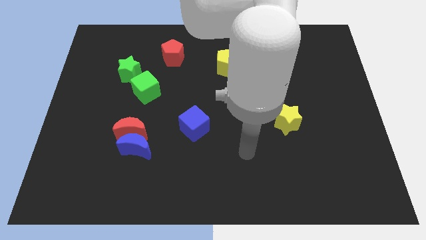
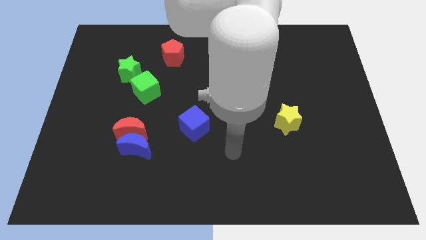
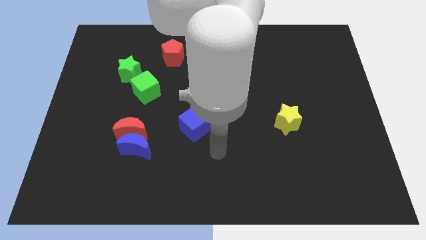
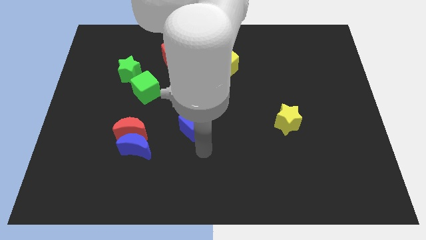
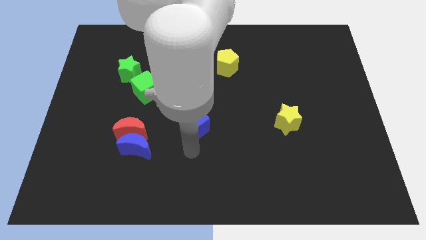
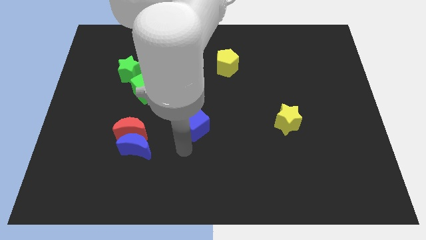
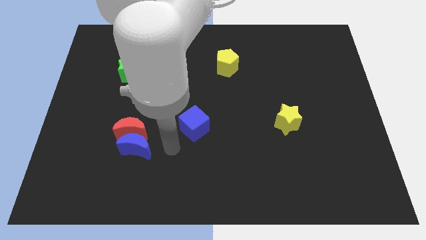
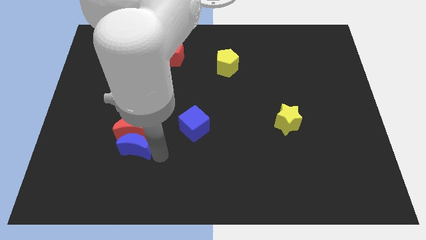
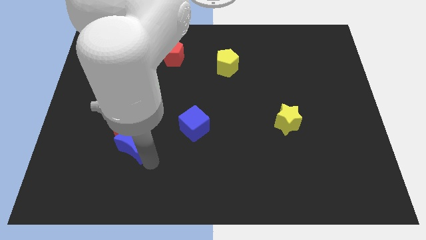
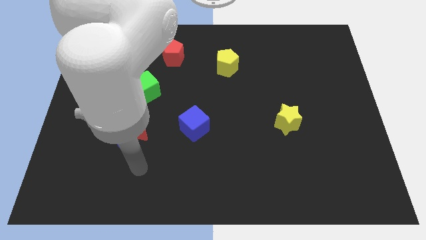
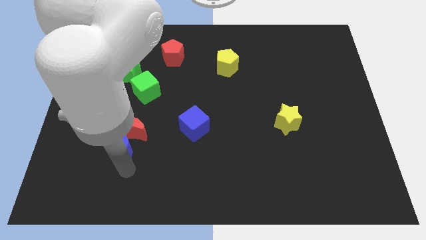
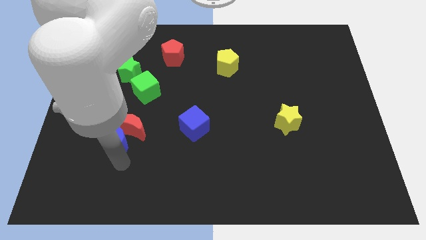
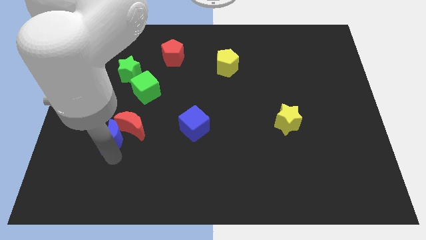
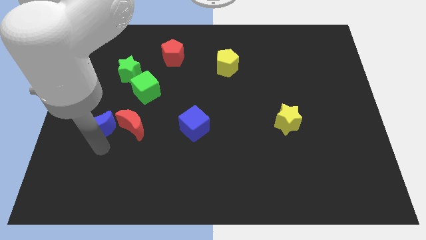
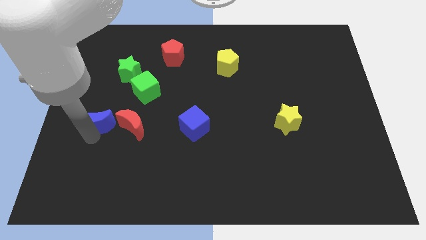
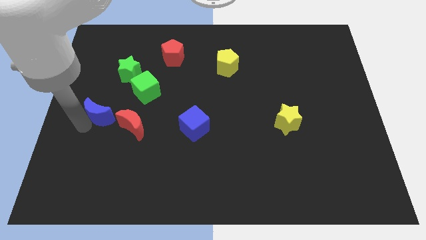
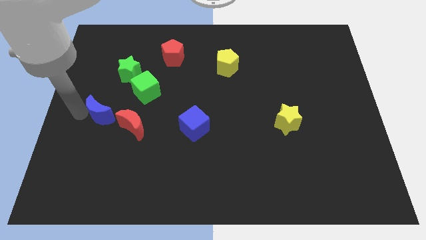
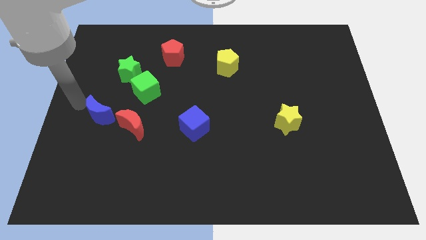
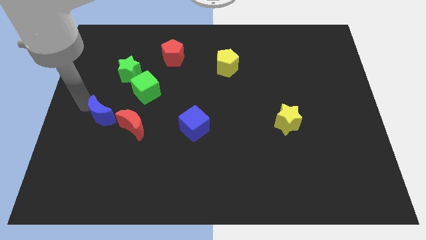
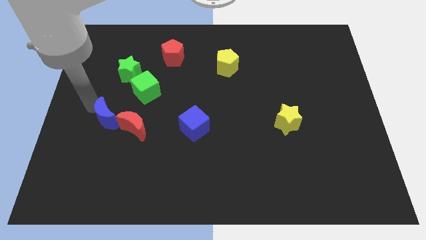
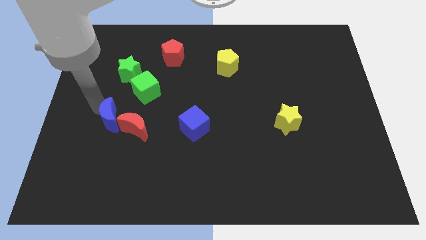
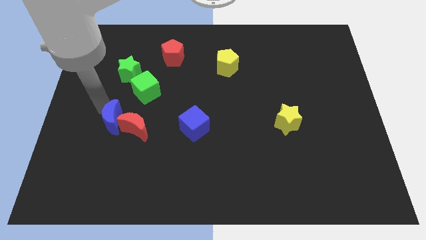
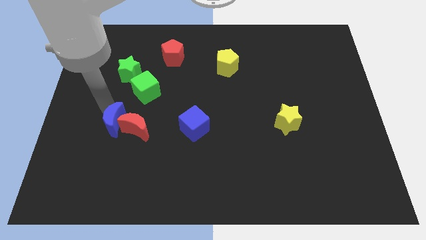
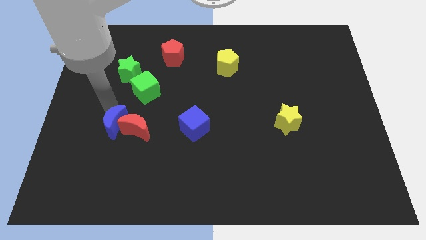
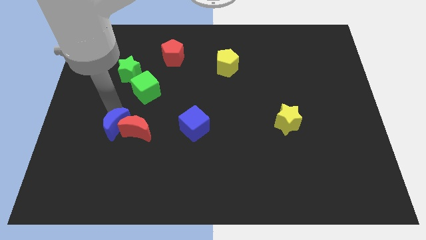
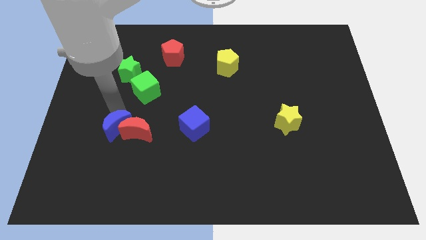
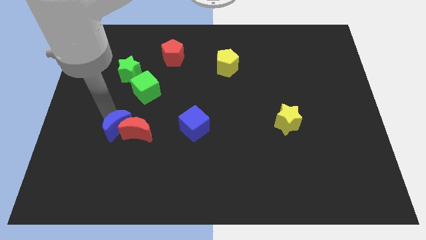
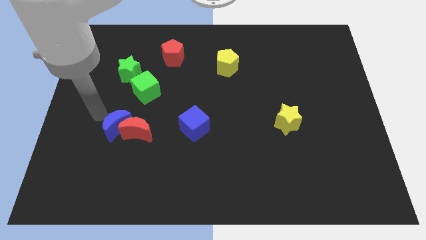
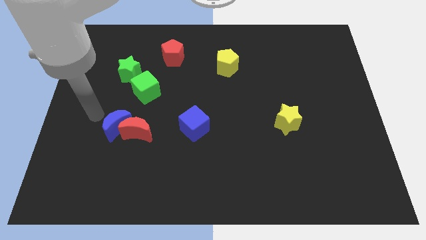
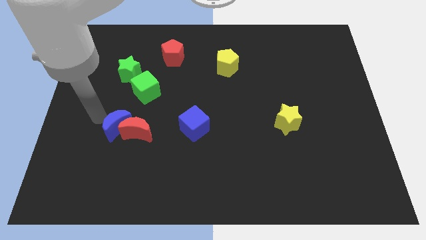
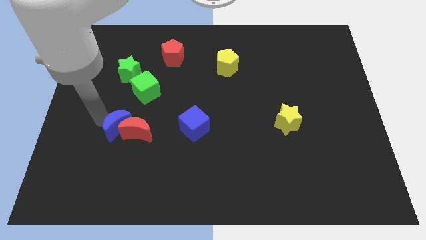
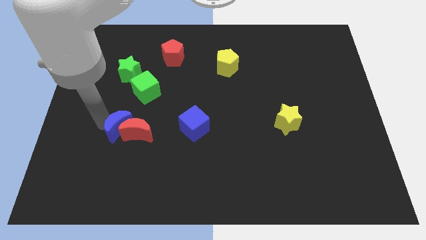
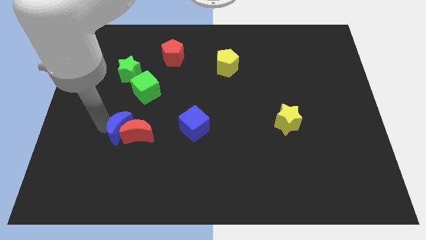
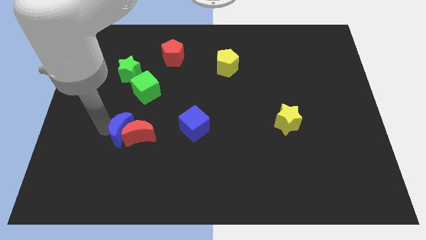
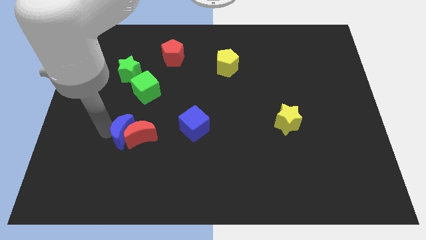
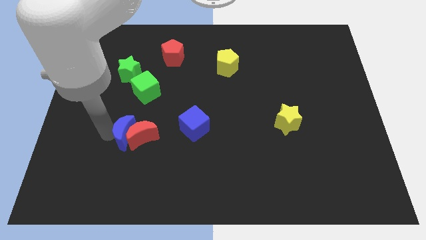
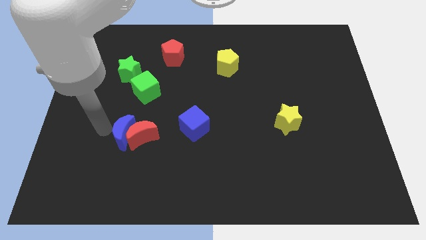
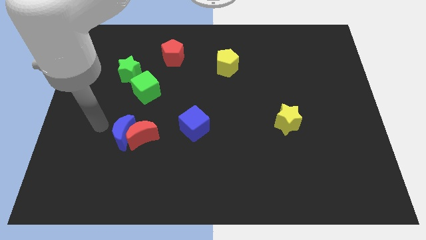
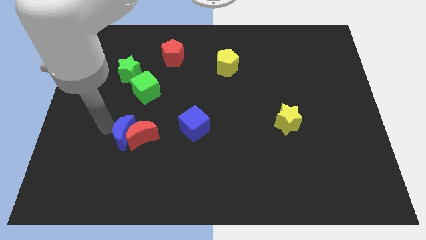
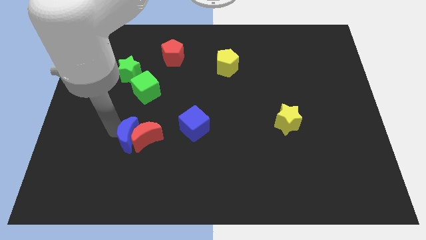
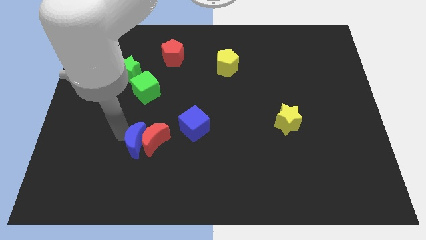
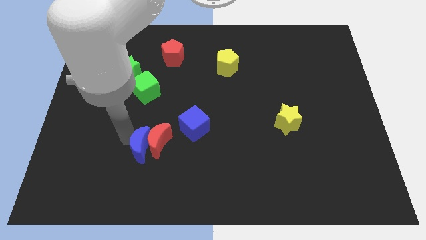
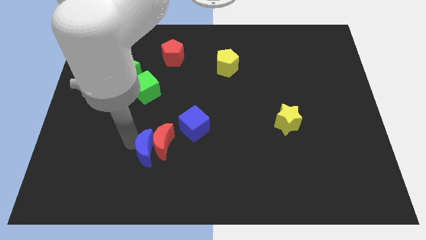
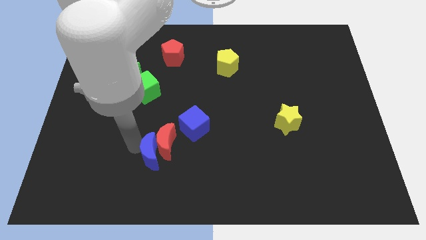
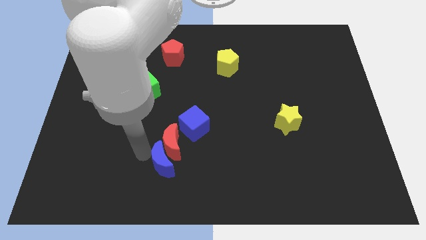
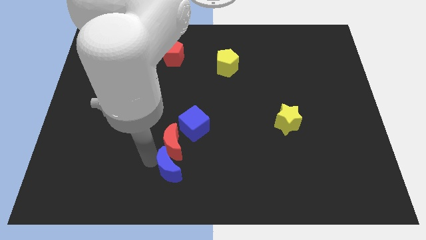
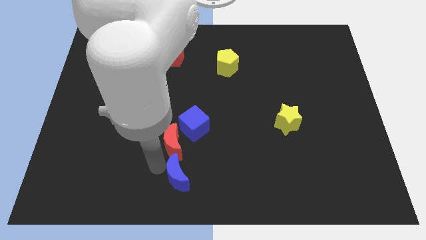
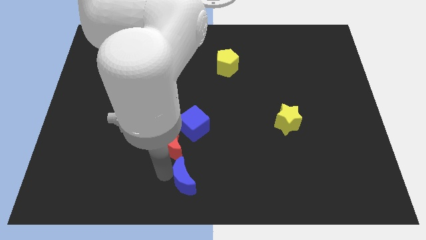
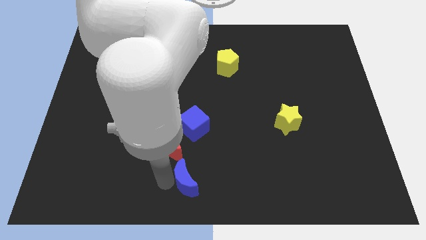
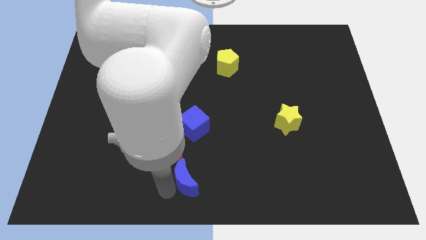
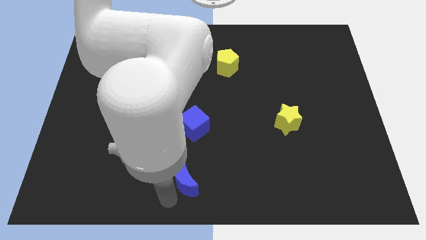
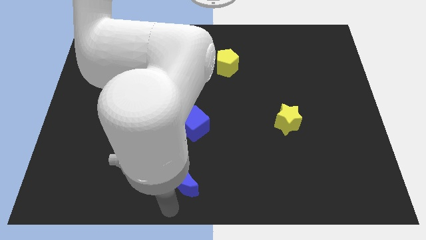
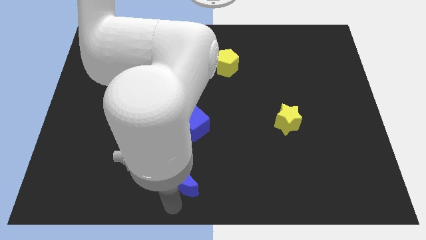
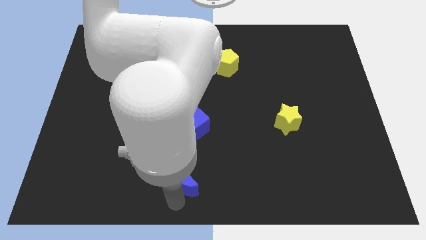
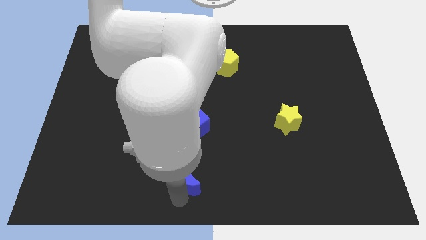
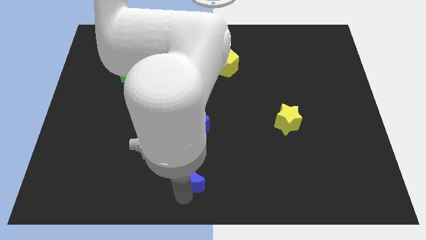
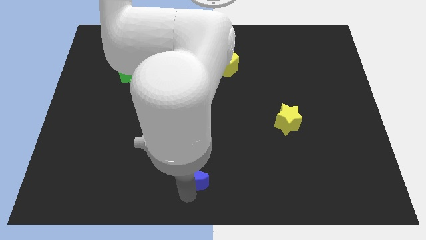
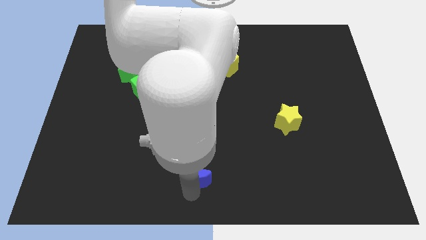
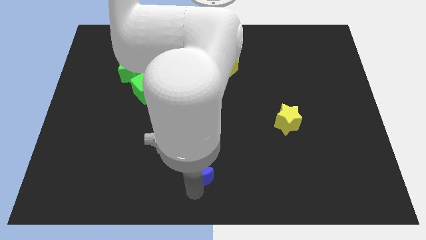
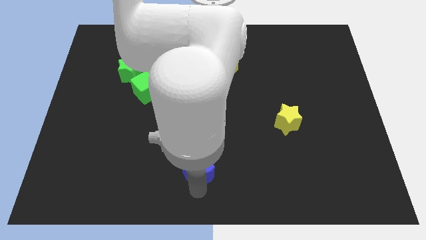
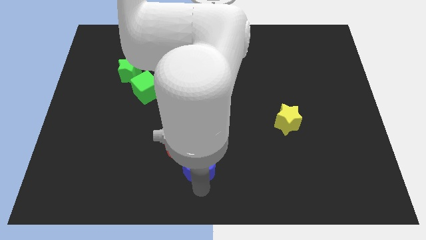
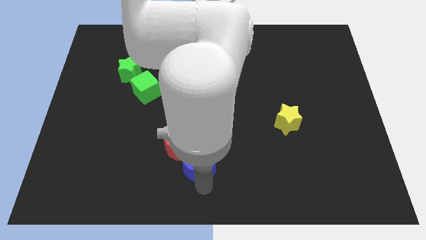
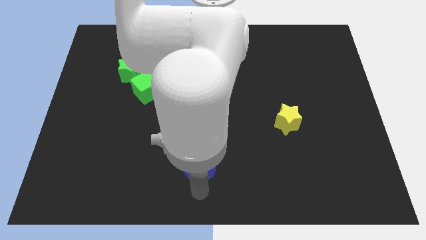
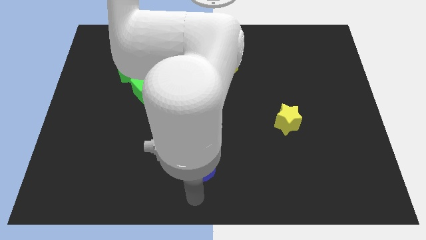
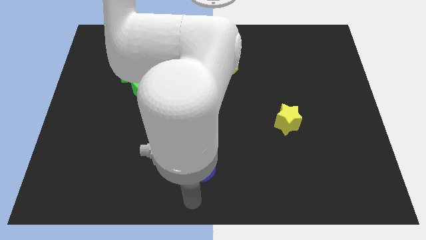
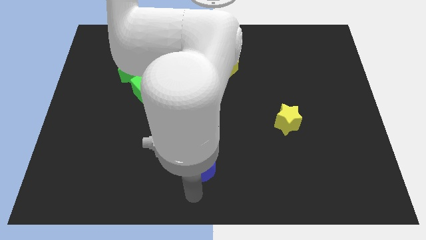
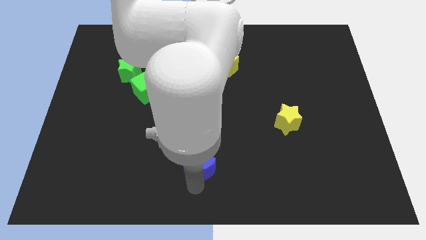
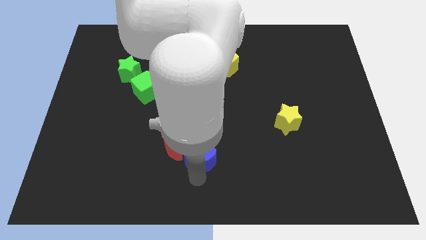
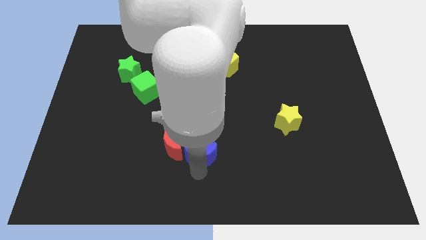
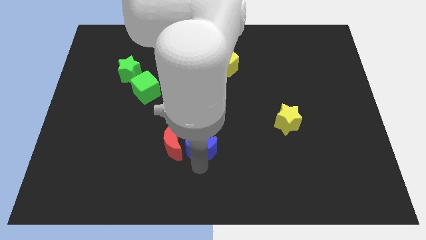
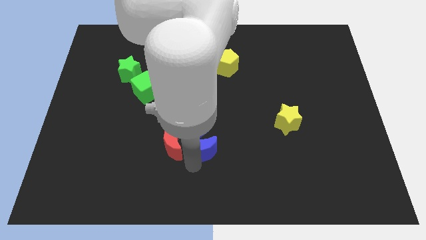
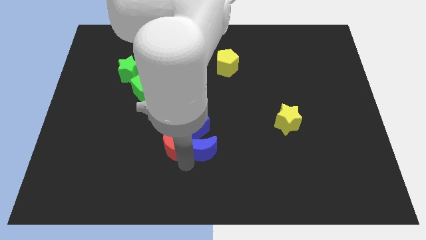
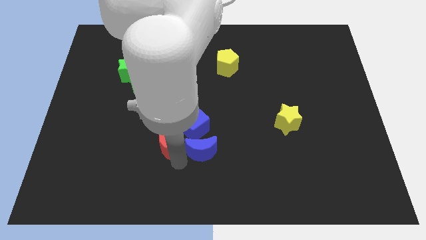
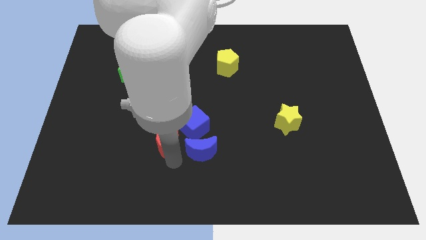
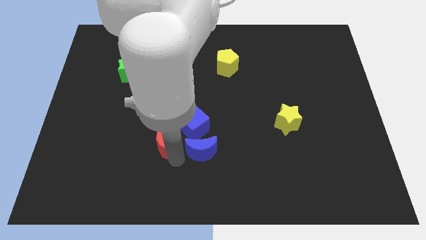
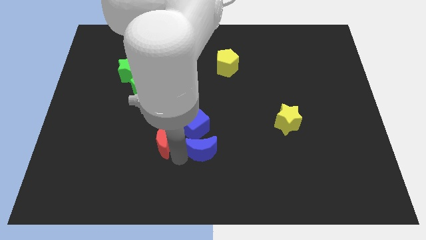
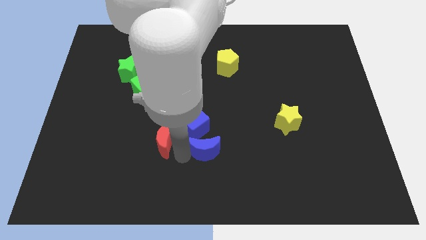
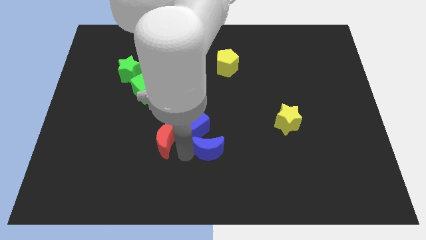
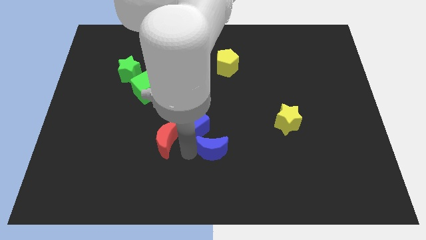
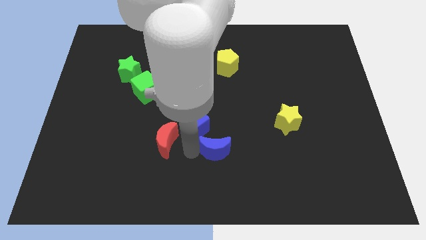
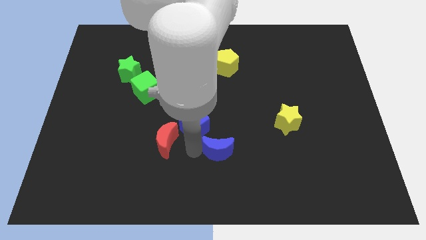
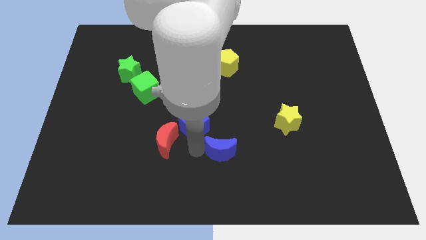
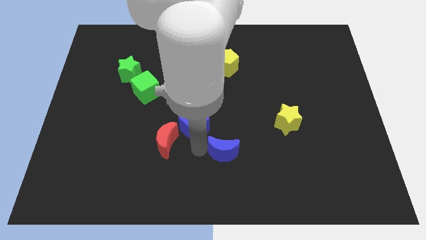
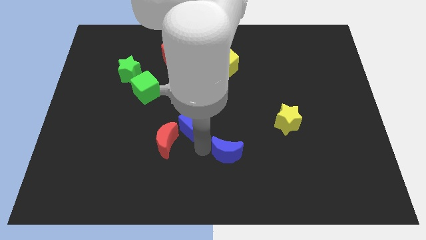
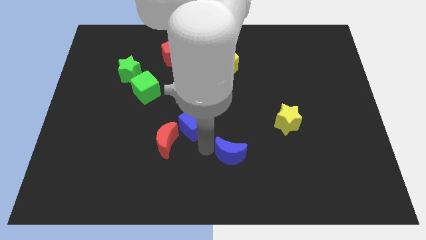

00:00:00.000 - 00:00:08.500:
move the blue moon to the right
